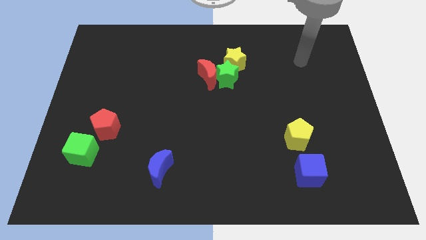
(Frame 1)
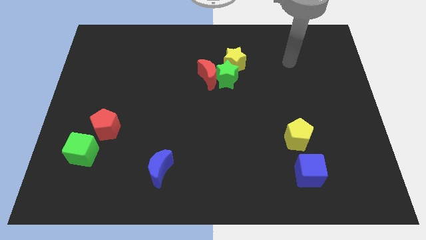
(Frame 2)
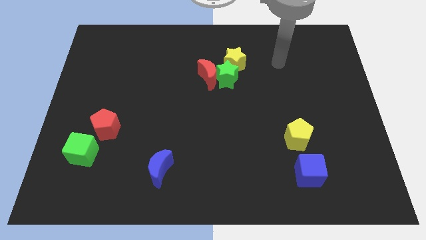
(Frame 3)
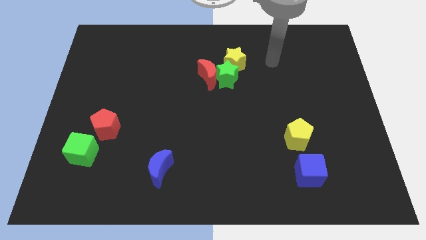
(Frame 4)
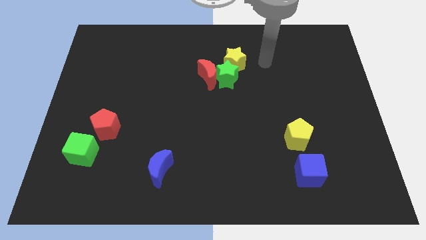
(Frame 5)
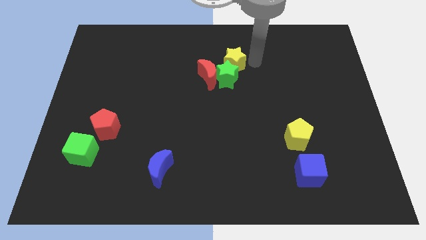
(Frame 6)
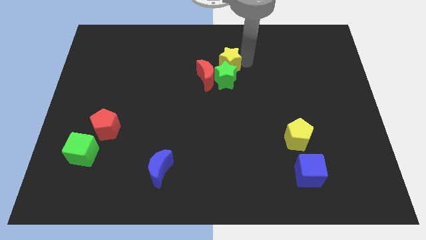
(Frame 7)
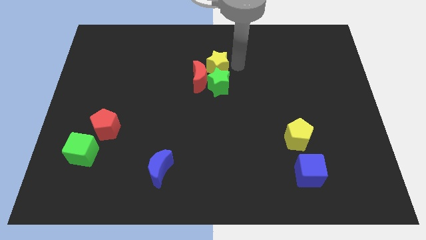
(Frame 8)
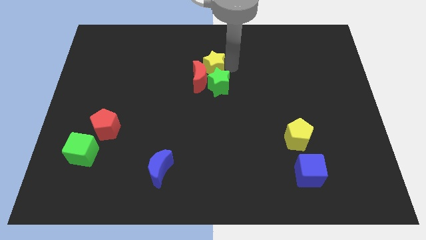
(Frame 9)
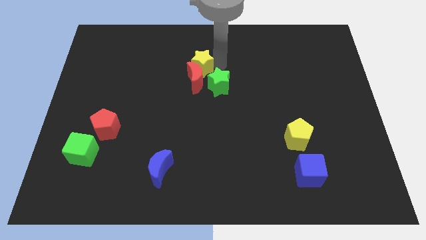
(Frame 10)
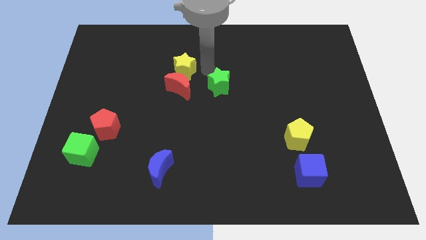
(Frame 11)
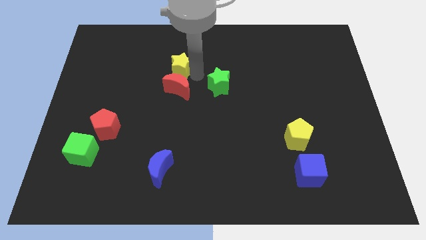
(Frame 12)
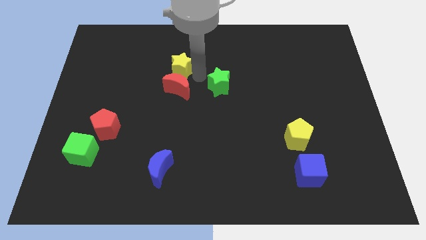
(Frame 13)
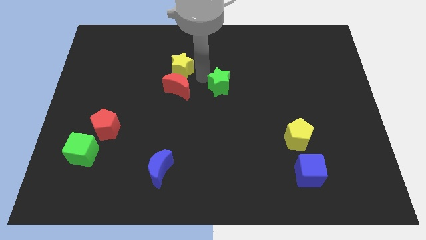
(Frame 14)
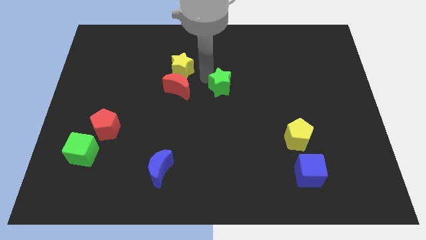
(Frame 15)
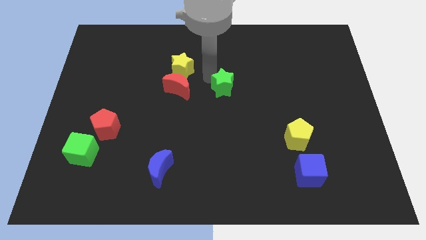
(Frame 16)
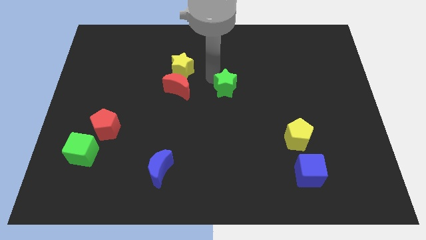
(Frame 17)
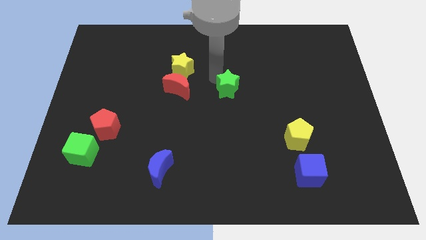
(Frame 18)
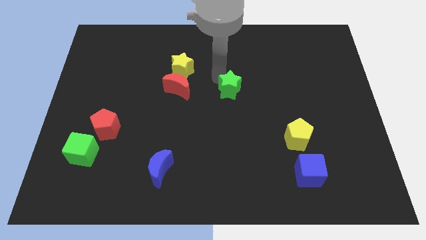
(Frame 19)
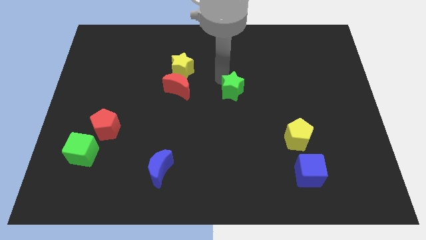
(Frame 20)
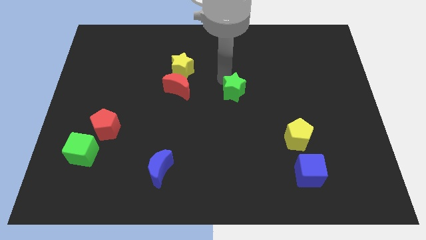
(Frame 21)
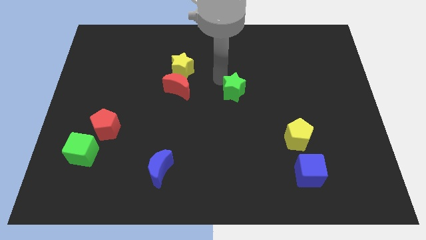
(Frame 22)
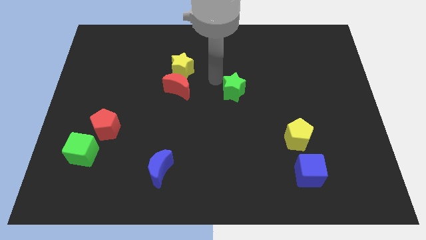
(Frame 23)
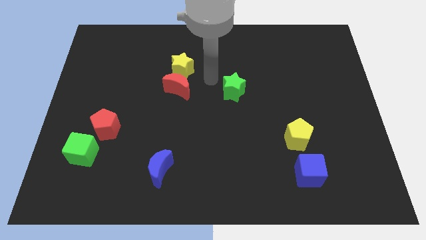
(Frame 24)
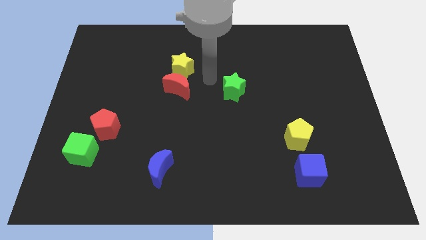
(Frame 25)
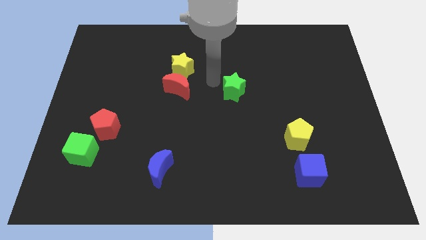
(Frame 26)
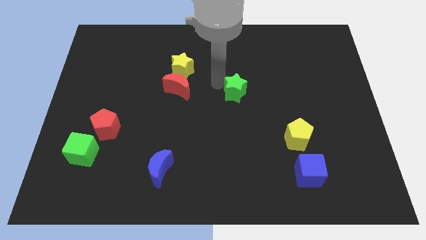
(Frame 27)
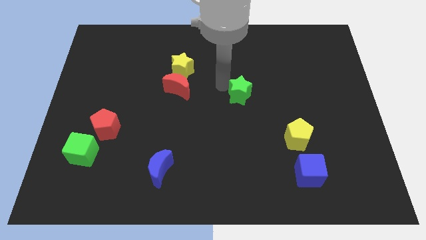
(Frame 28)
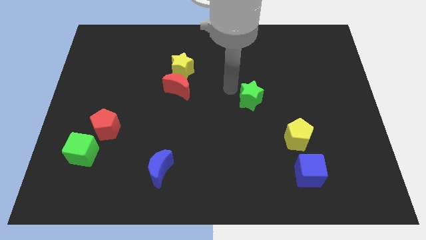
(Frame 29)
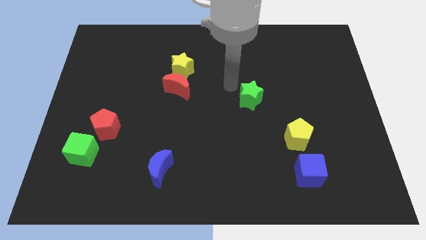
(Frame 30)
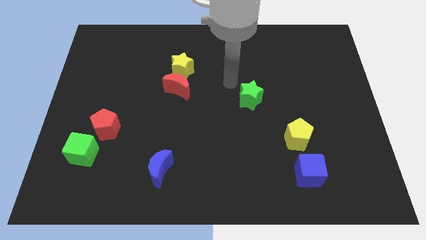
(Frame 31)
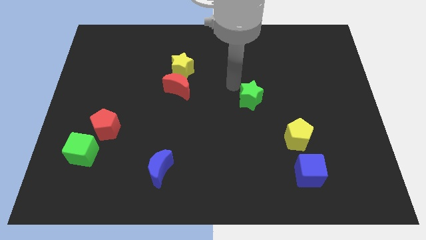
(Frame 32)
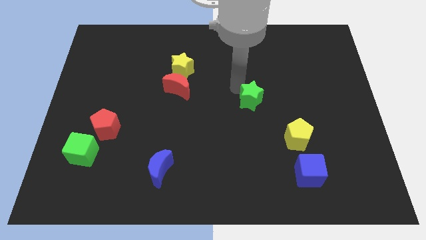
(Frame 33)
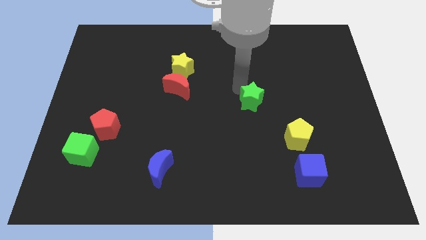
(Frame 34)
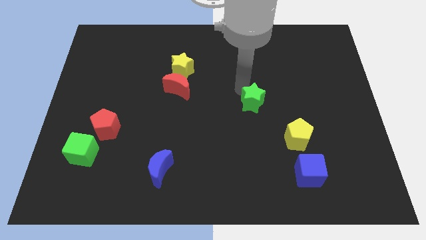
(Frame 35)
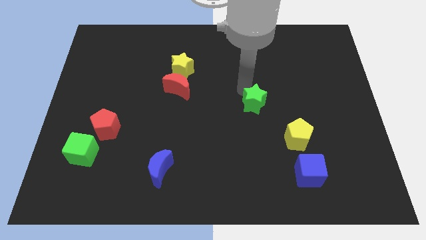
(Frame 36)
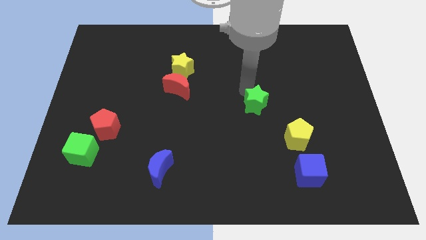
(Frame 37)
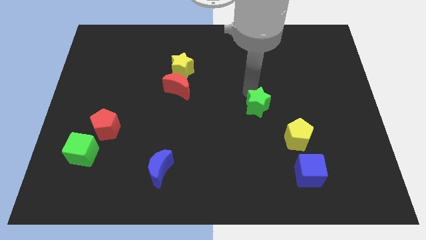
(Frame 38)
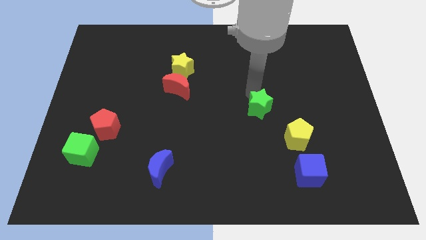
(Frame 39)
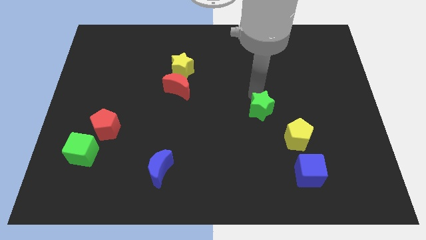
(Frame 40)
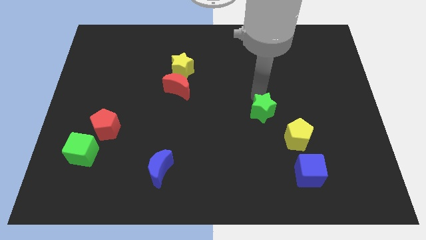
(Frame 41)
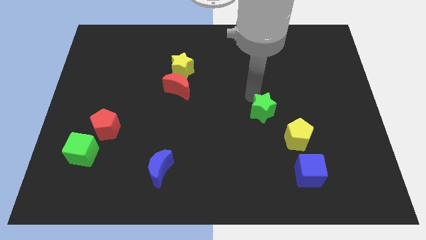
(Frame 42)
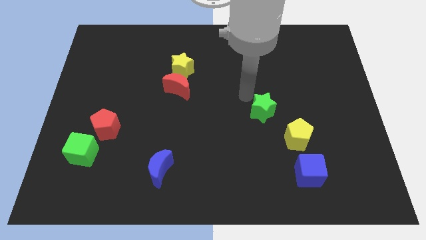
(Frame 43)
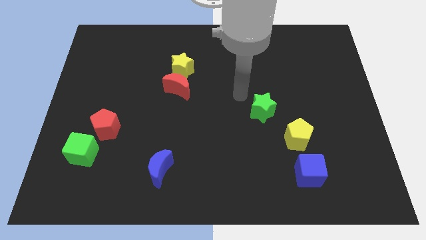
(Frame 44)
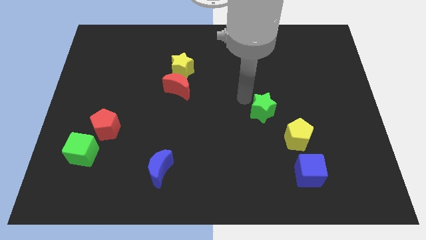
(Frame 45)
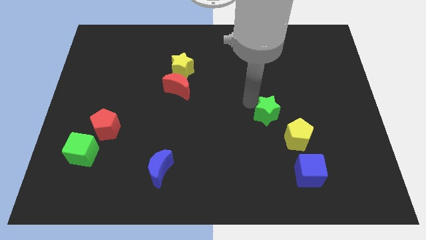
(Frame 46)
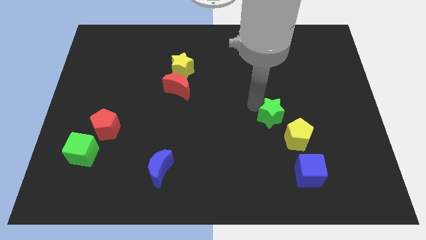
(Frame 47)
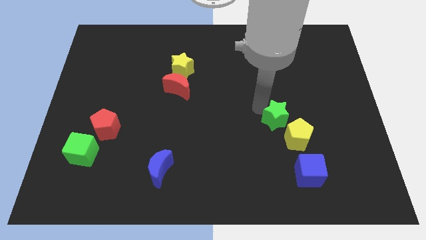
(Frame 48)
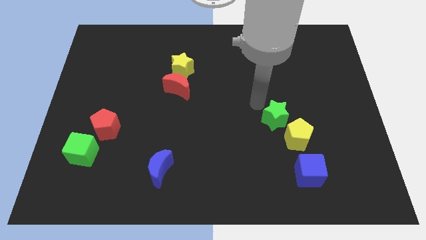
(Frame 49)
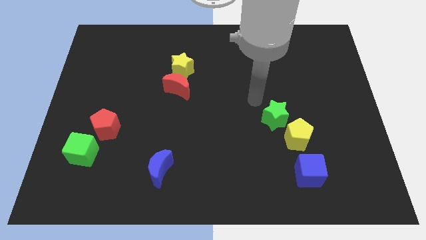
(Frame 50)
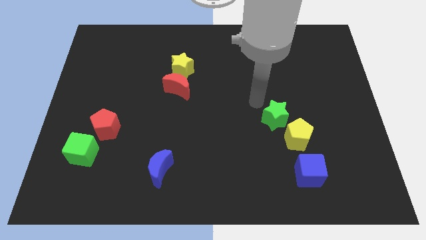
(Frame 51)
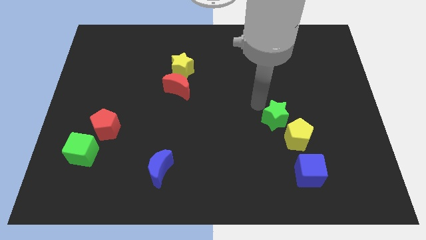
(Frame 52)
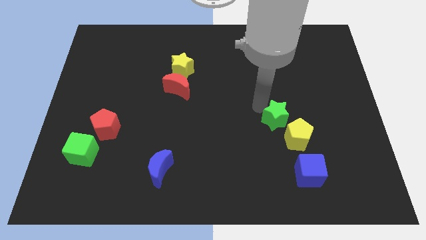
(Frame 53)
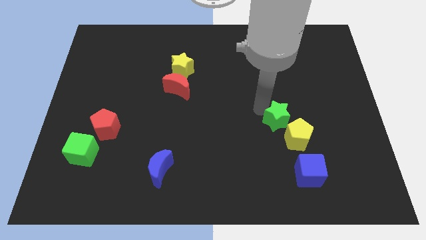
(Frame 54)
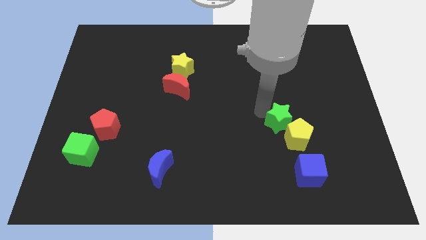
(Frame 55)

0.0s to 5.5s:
move the green star next to the yellow pentagon

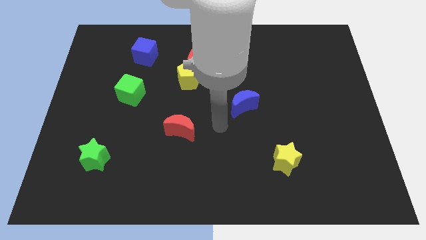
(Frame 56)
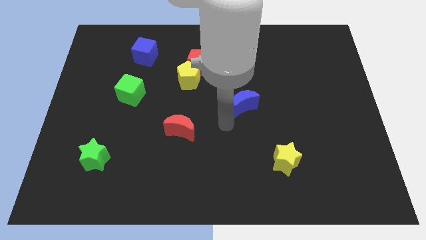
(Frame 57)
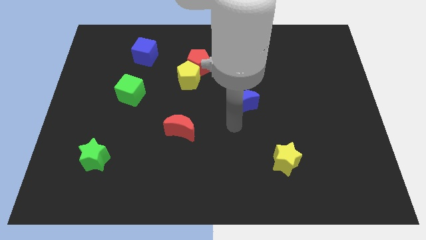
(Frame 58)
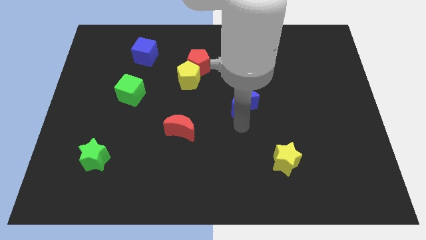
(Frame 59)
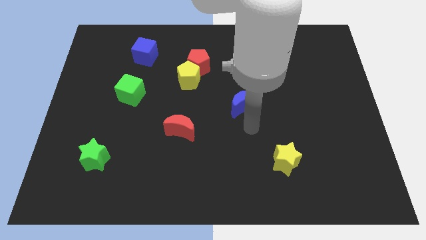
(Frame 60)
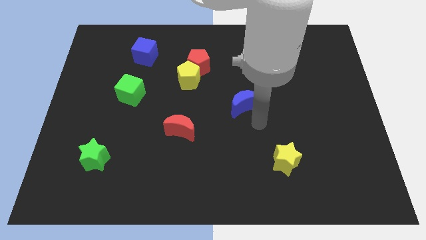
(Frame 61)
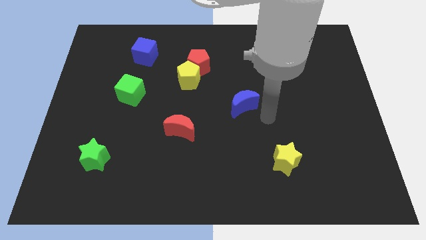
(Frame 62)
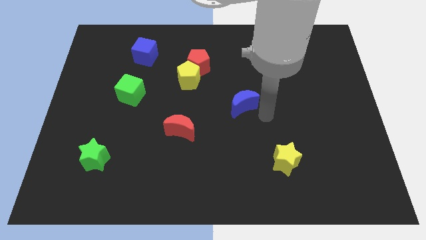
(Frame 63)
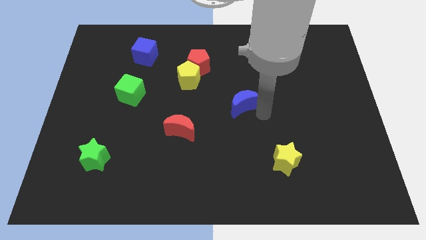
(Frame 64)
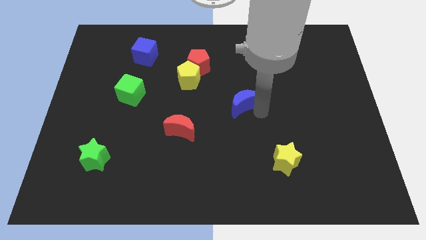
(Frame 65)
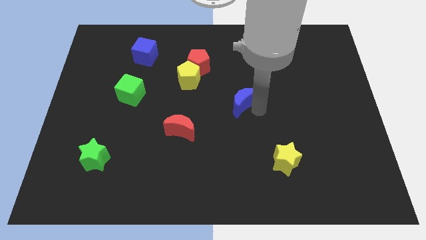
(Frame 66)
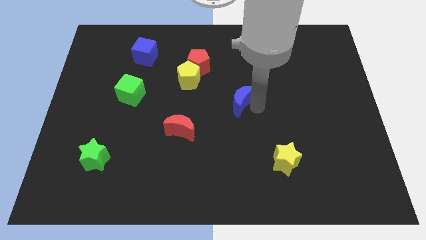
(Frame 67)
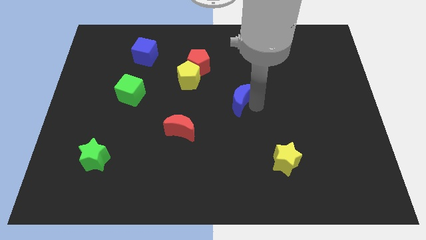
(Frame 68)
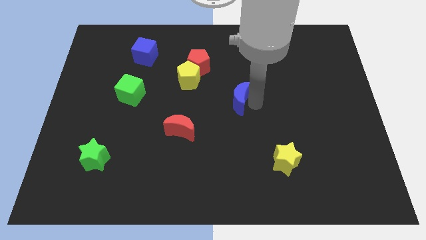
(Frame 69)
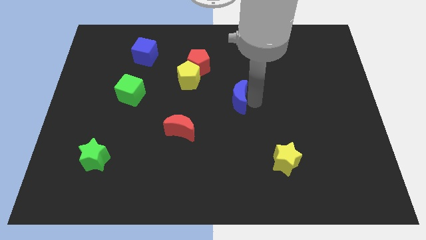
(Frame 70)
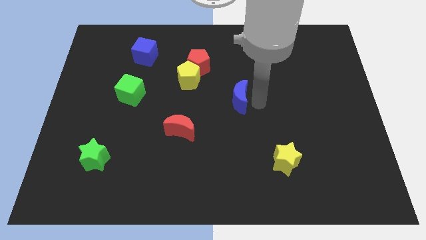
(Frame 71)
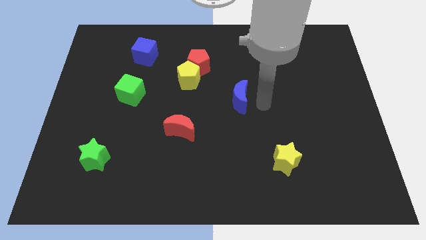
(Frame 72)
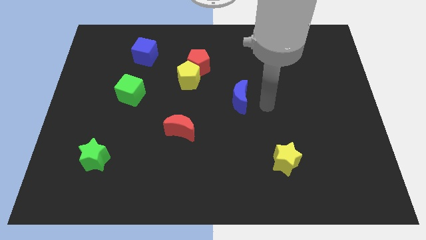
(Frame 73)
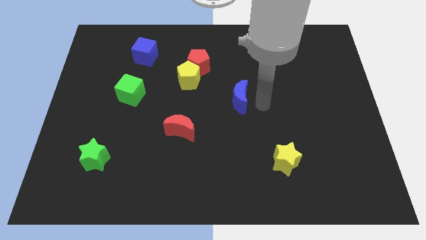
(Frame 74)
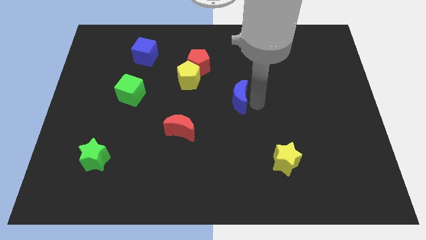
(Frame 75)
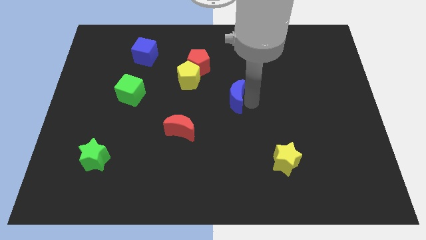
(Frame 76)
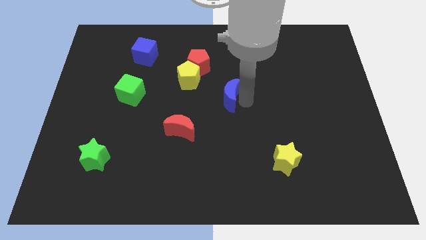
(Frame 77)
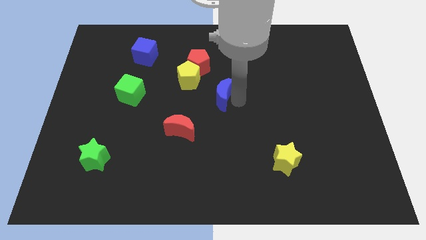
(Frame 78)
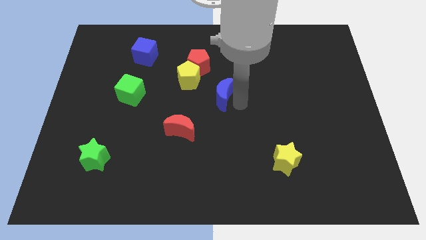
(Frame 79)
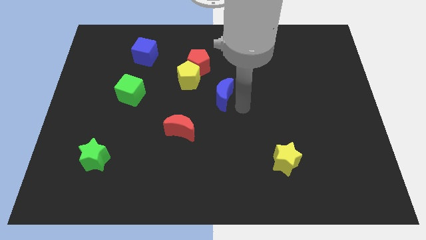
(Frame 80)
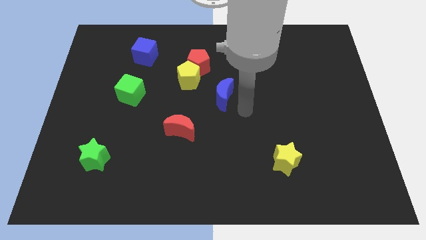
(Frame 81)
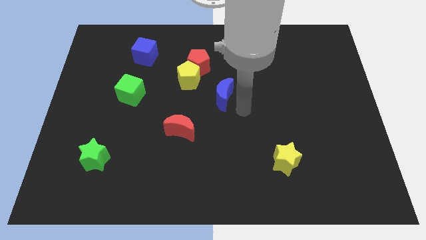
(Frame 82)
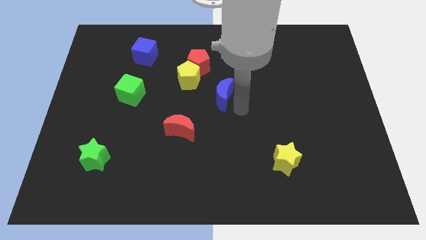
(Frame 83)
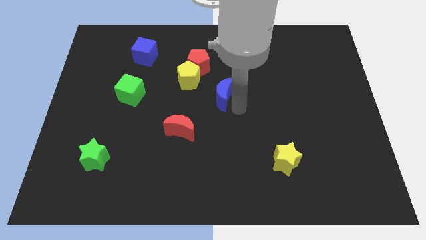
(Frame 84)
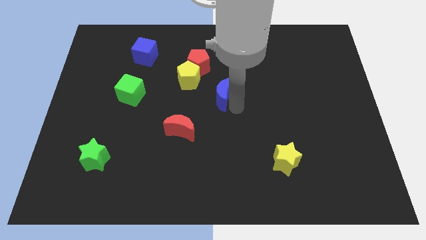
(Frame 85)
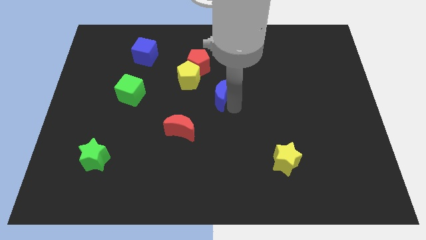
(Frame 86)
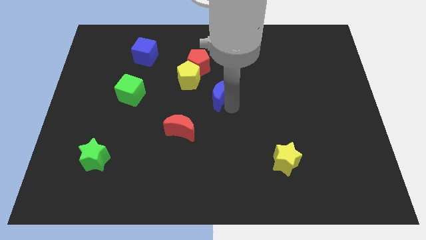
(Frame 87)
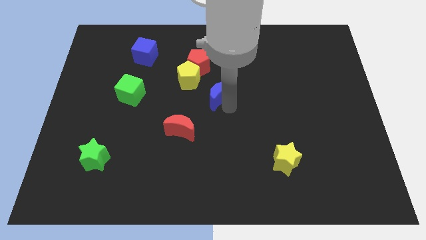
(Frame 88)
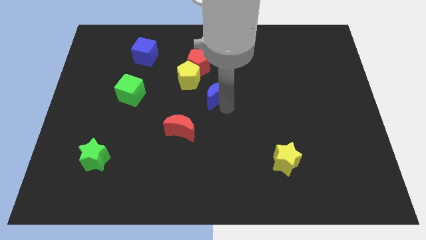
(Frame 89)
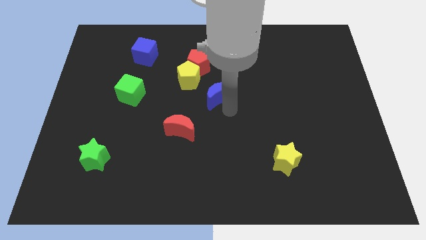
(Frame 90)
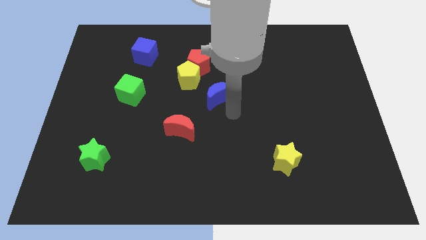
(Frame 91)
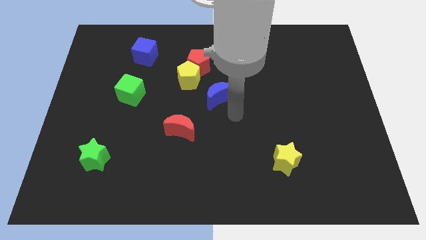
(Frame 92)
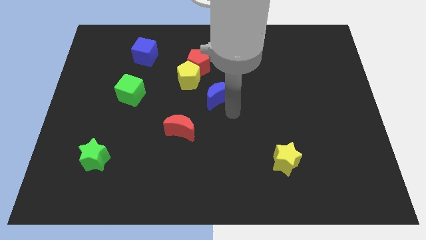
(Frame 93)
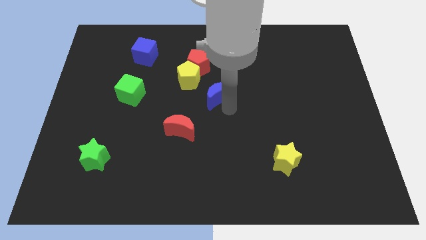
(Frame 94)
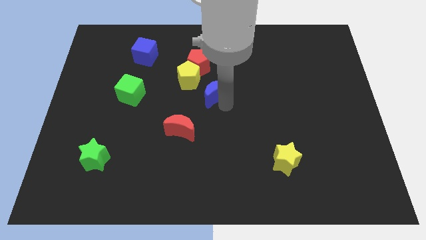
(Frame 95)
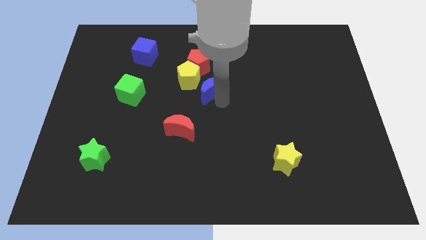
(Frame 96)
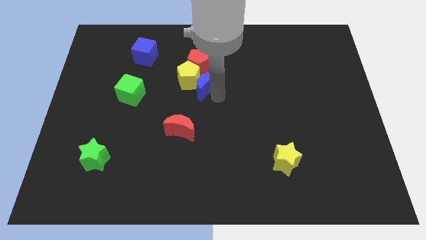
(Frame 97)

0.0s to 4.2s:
slide the blue moon towards the yellow pentagon
